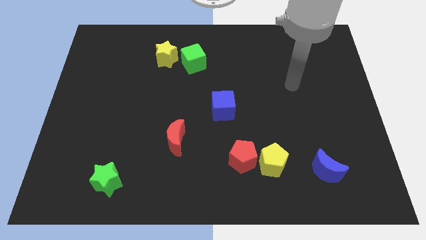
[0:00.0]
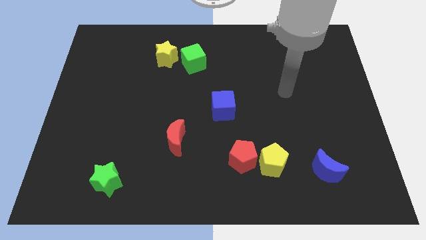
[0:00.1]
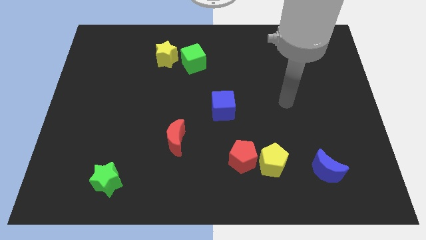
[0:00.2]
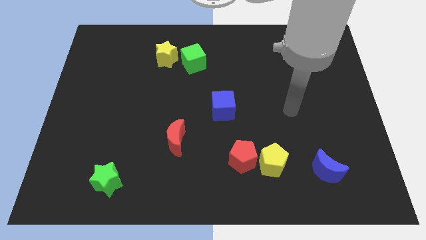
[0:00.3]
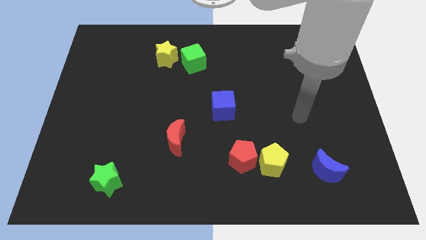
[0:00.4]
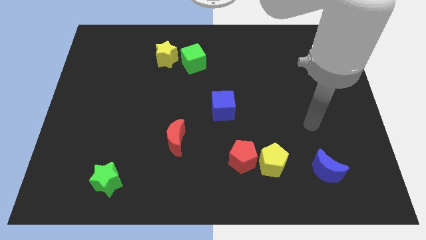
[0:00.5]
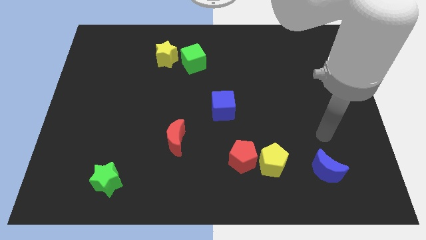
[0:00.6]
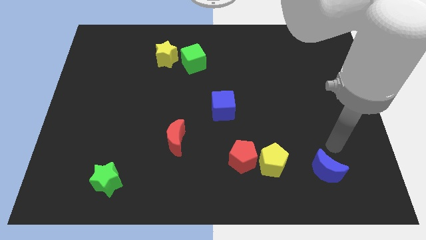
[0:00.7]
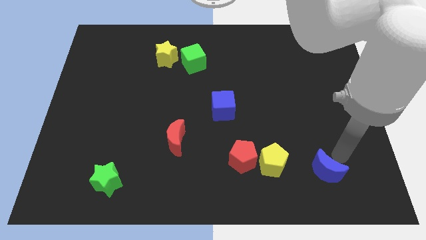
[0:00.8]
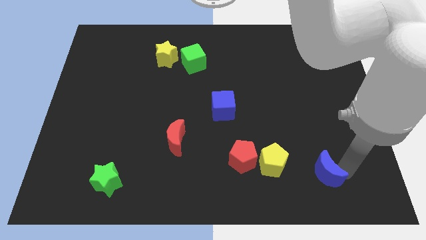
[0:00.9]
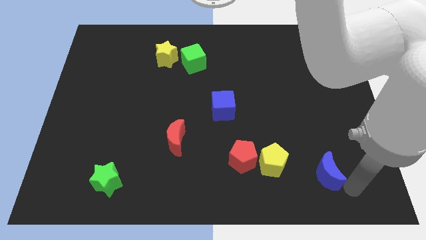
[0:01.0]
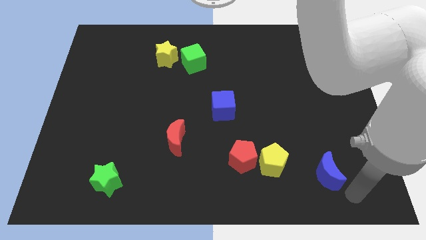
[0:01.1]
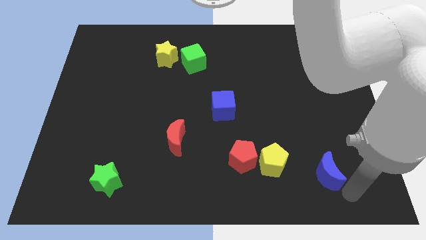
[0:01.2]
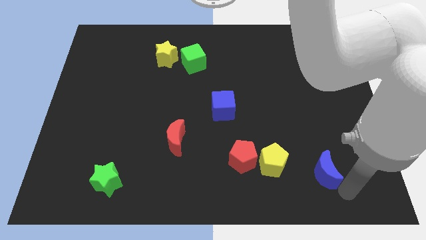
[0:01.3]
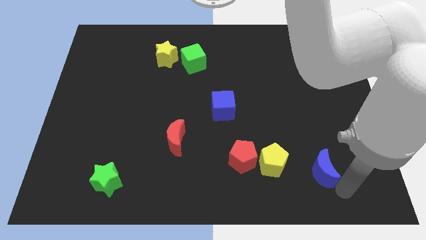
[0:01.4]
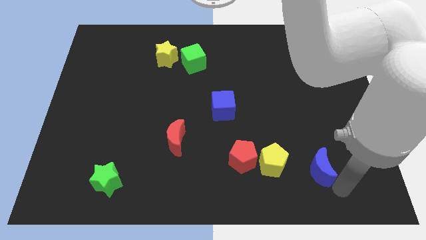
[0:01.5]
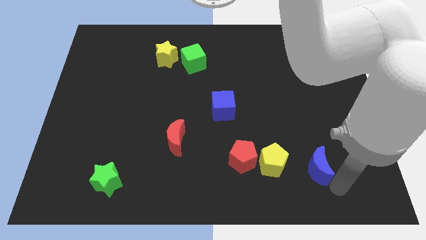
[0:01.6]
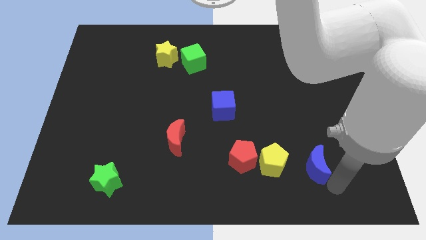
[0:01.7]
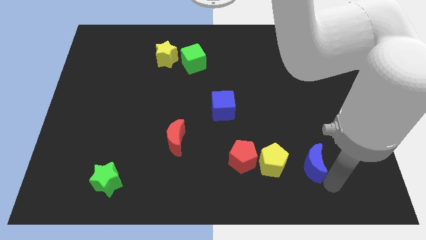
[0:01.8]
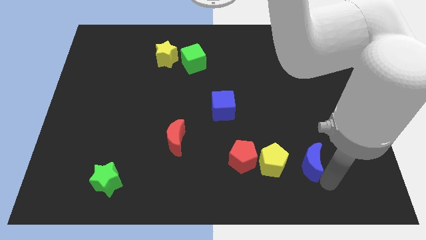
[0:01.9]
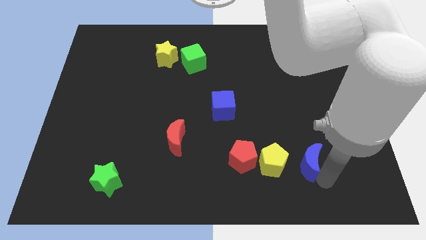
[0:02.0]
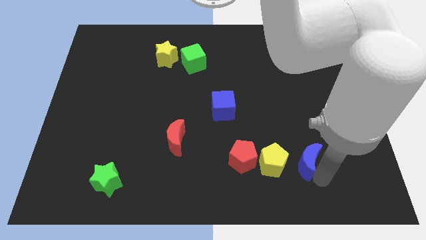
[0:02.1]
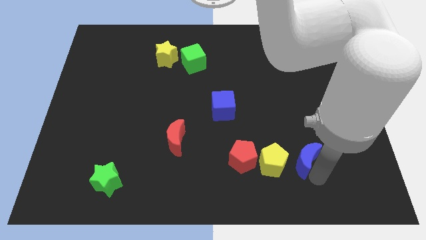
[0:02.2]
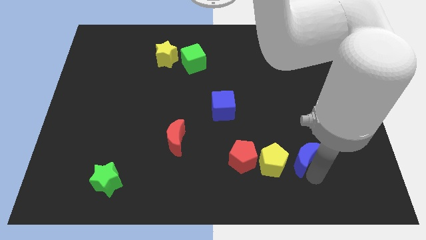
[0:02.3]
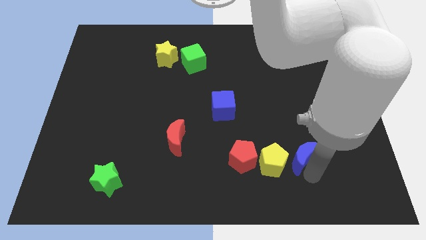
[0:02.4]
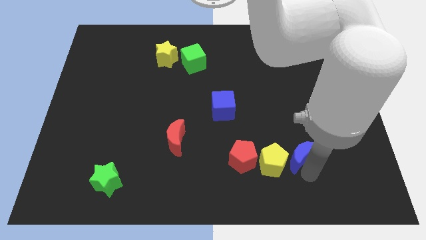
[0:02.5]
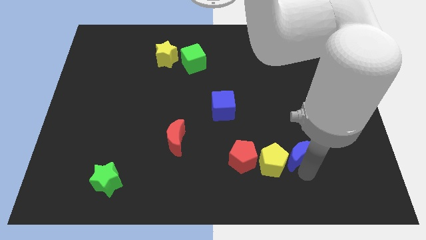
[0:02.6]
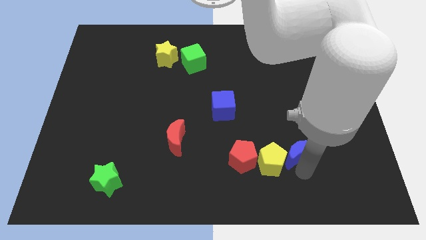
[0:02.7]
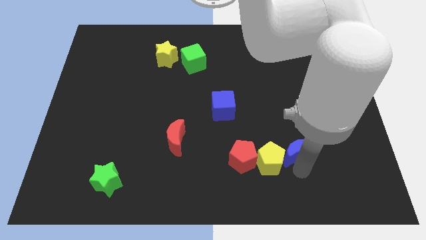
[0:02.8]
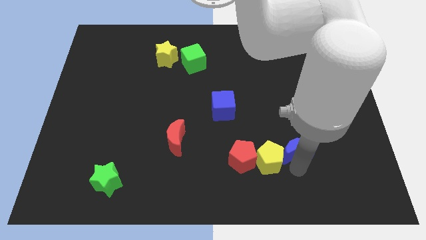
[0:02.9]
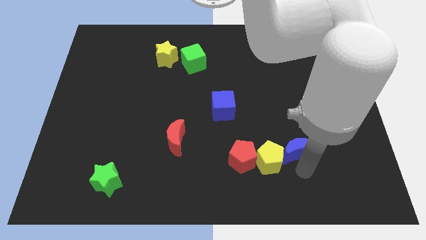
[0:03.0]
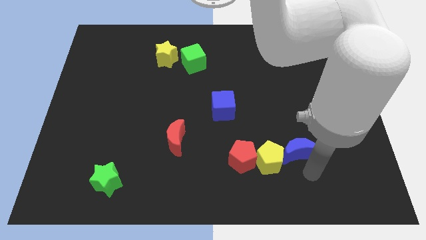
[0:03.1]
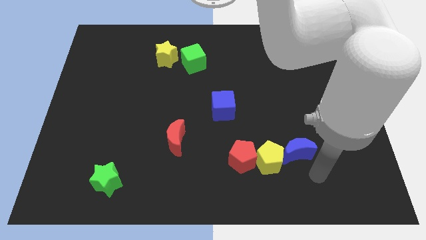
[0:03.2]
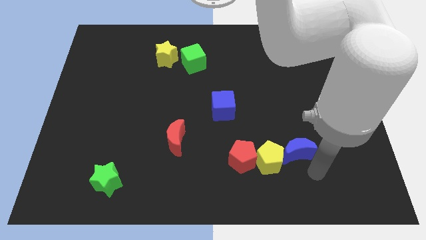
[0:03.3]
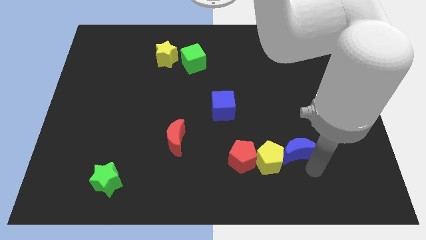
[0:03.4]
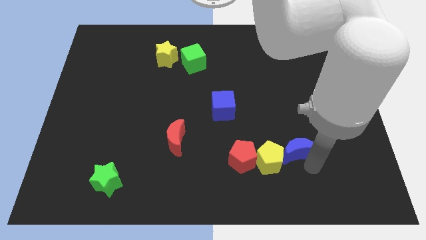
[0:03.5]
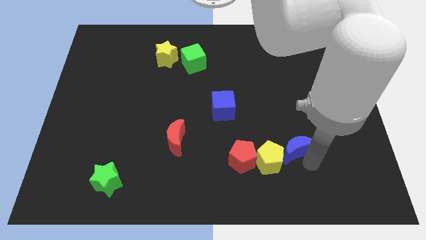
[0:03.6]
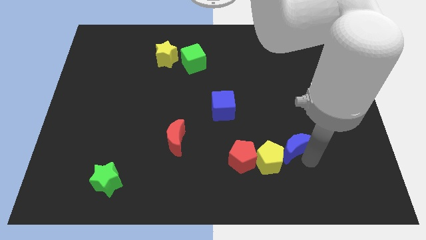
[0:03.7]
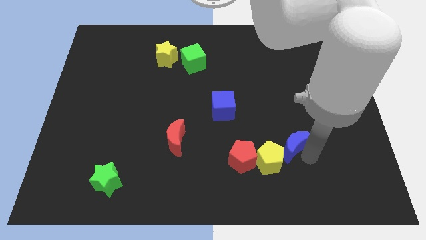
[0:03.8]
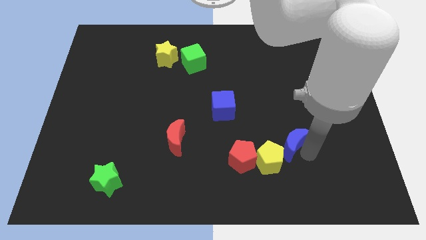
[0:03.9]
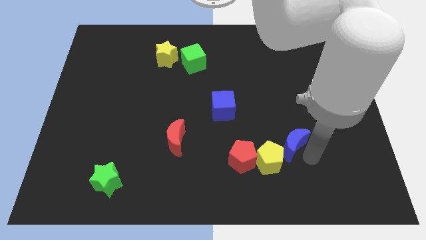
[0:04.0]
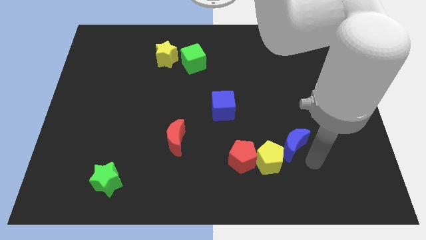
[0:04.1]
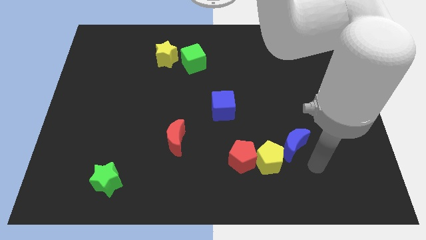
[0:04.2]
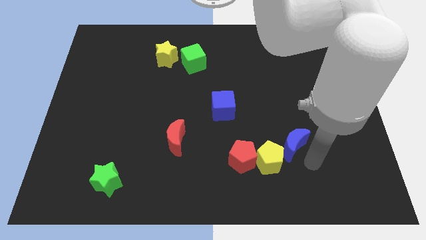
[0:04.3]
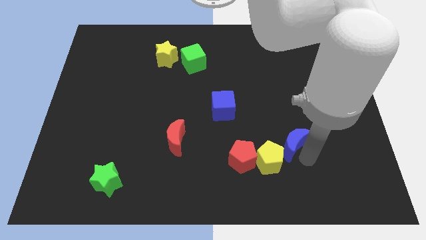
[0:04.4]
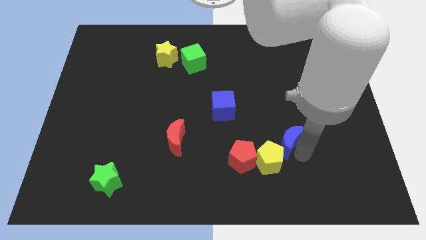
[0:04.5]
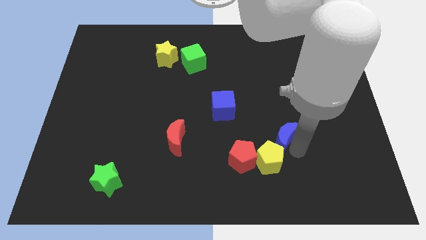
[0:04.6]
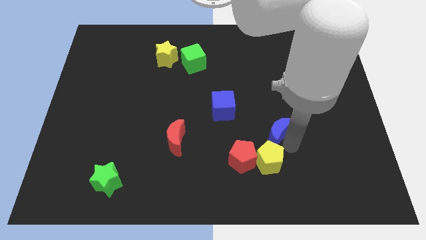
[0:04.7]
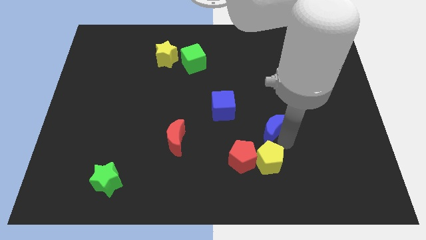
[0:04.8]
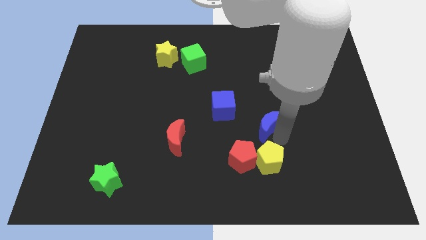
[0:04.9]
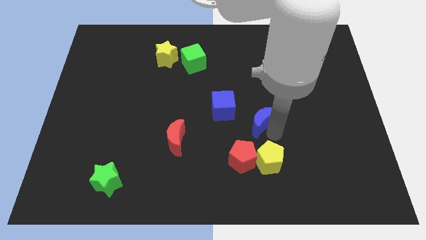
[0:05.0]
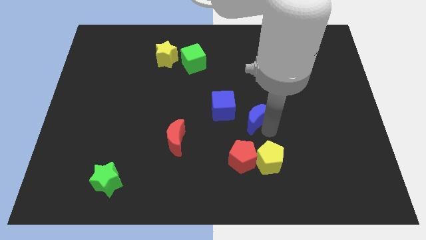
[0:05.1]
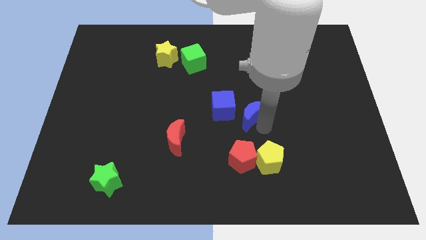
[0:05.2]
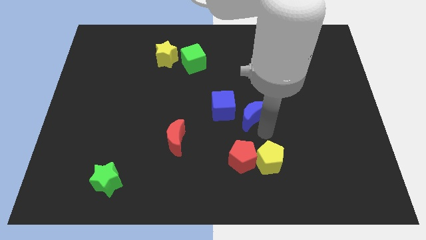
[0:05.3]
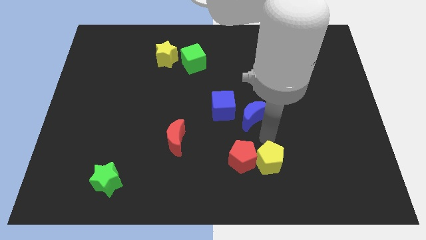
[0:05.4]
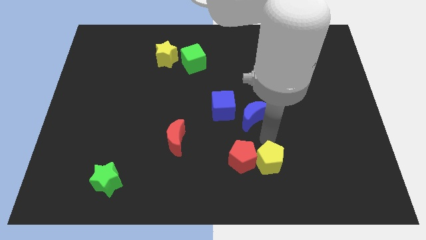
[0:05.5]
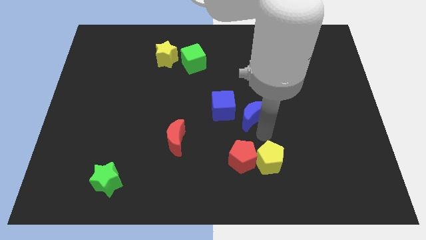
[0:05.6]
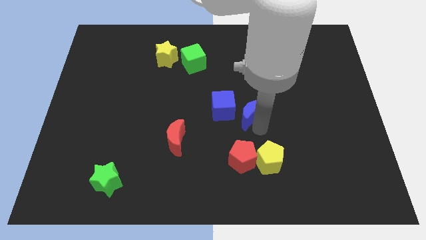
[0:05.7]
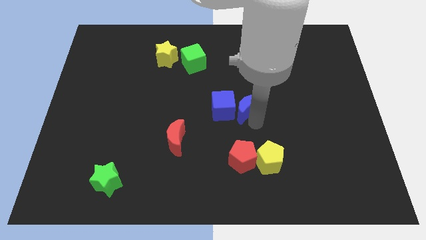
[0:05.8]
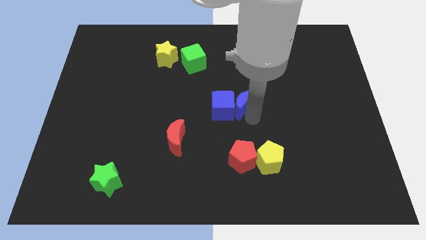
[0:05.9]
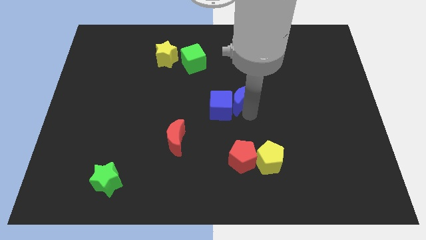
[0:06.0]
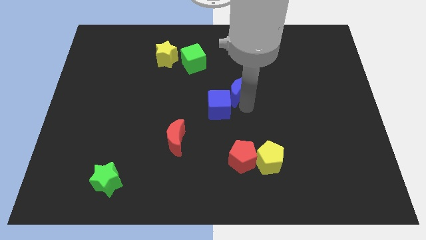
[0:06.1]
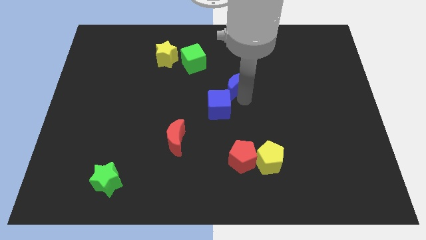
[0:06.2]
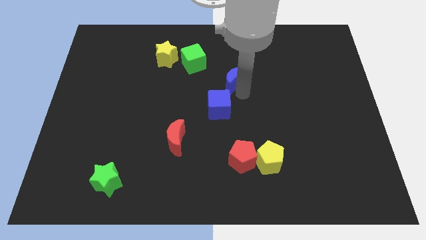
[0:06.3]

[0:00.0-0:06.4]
slide the blue moon diagonally down and to the right of the green cube
